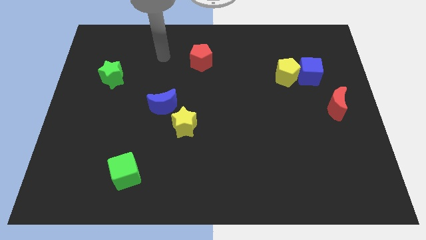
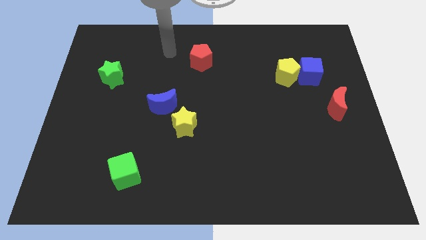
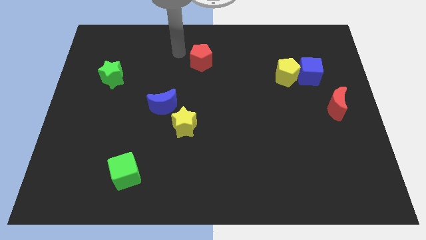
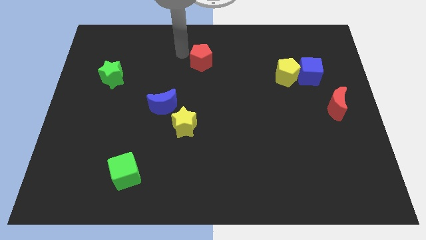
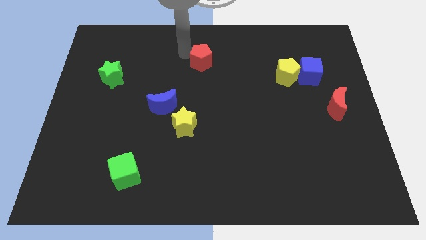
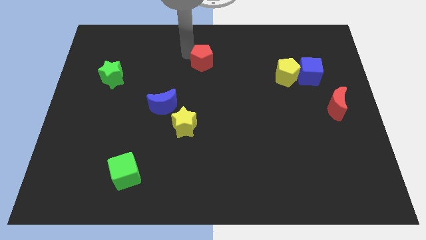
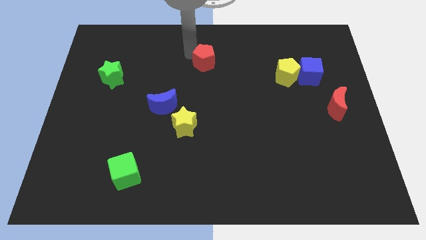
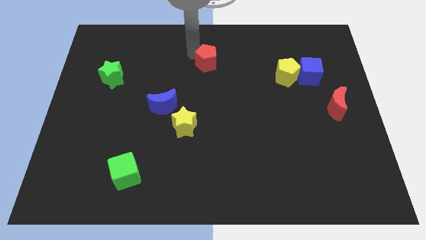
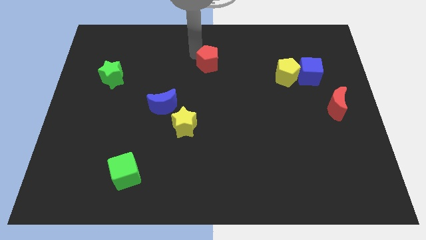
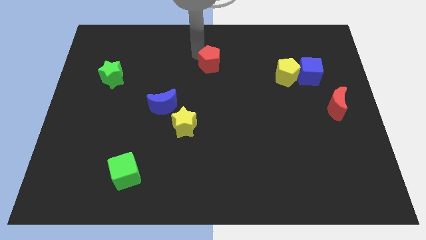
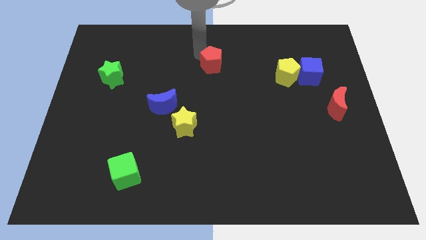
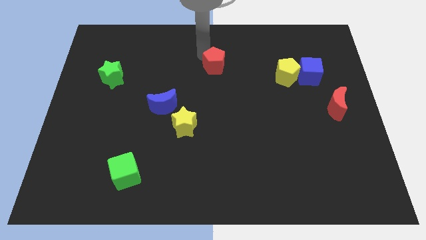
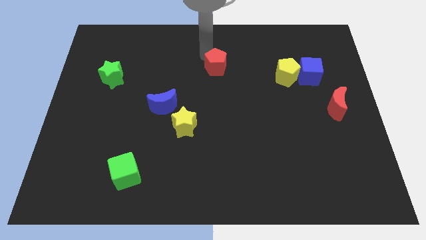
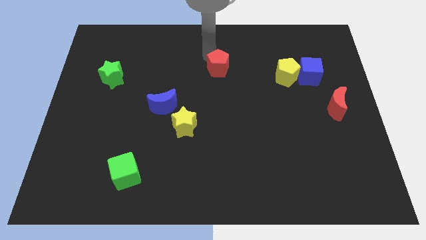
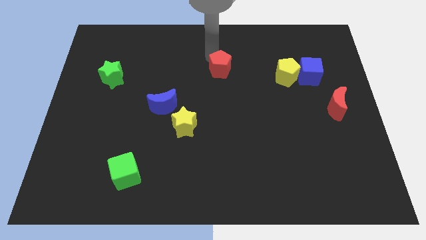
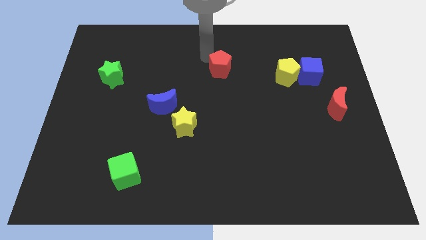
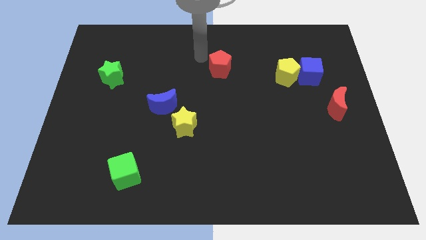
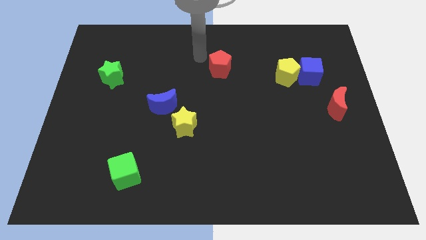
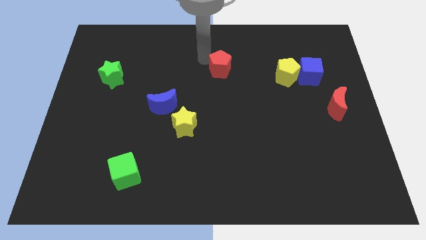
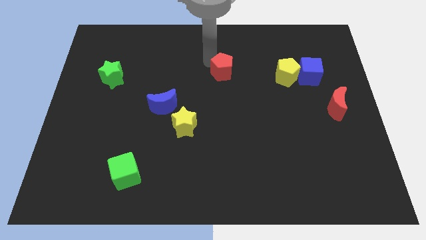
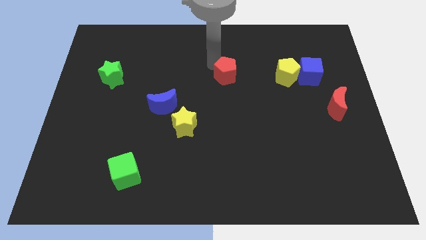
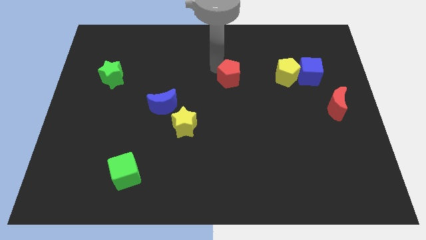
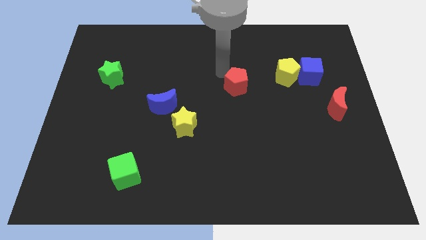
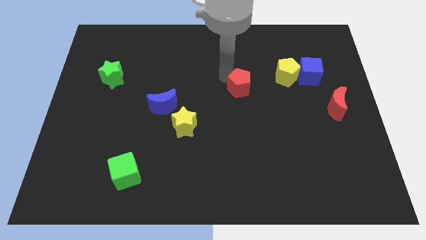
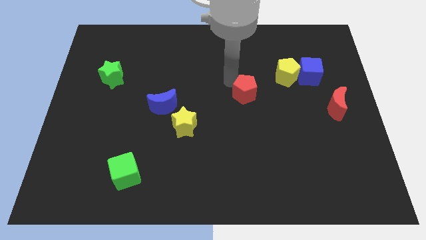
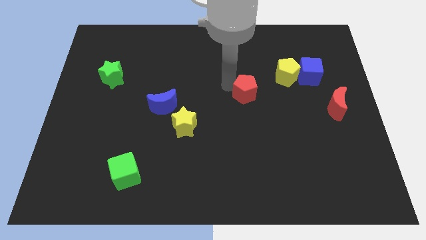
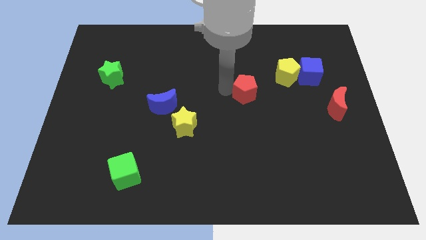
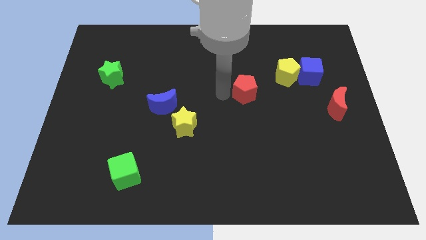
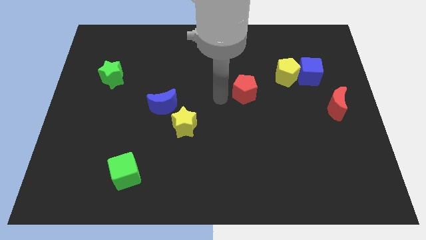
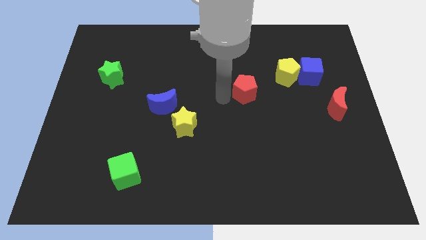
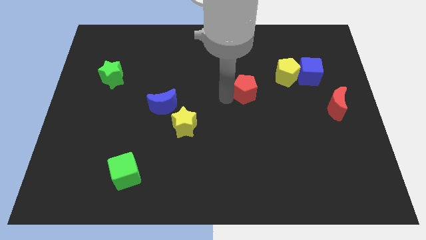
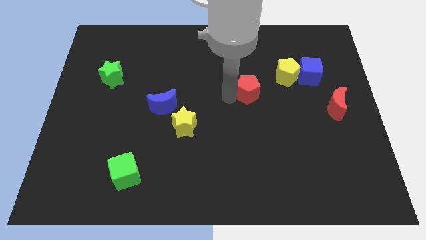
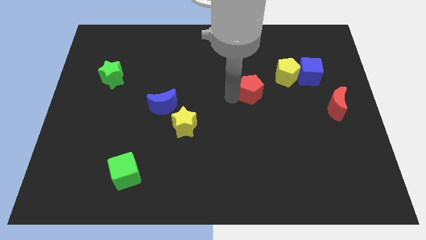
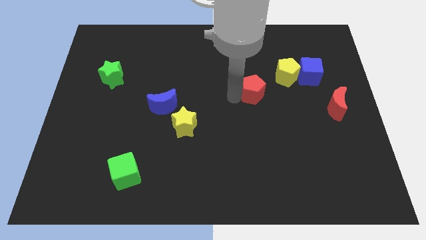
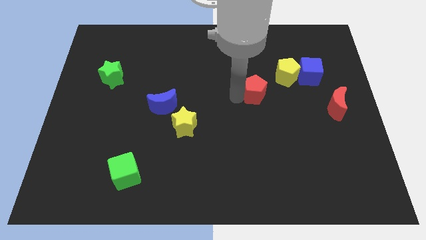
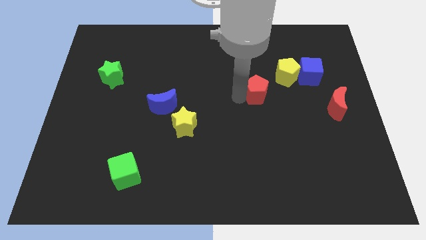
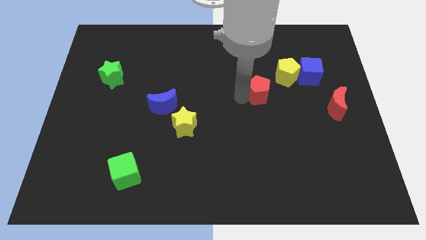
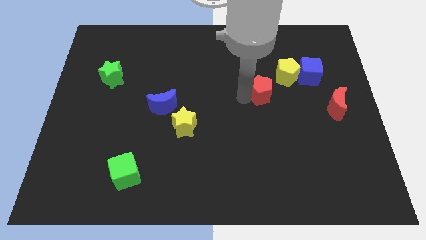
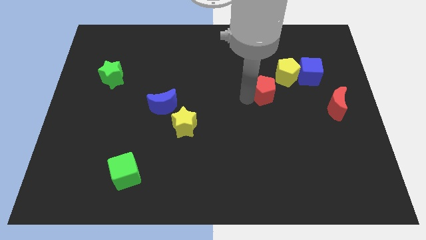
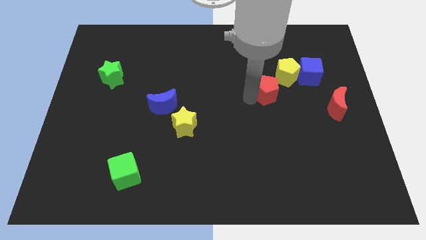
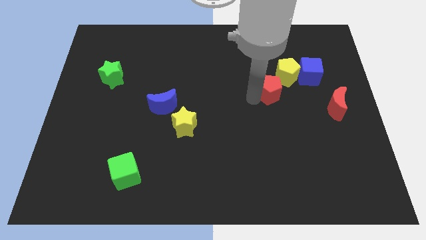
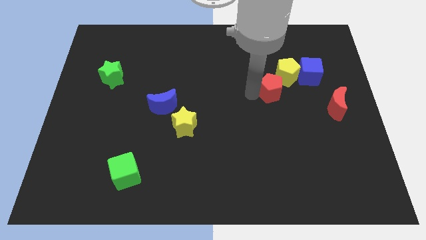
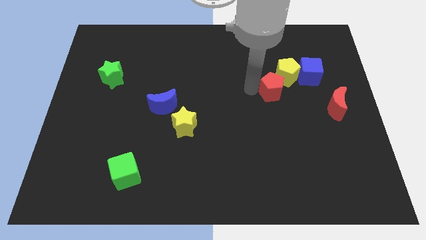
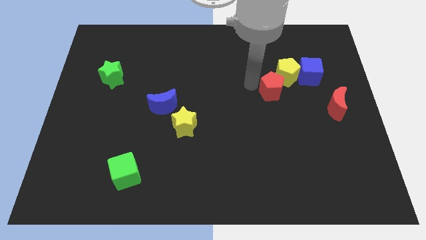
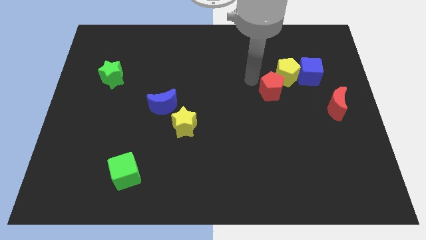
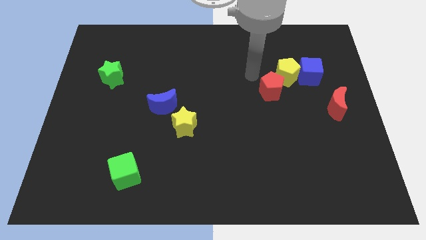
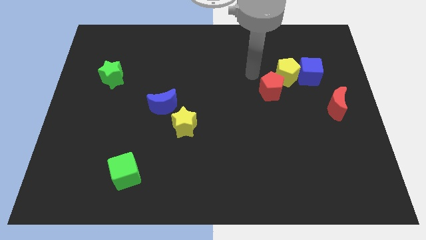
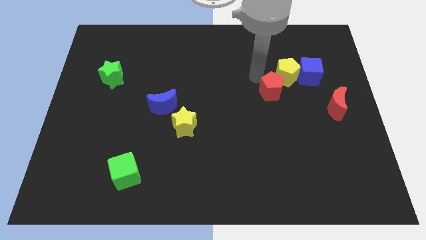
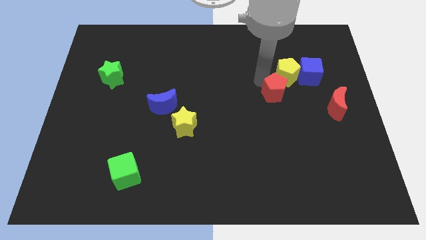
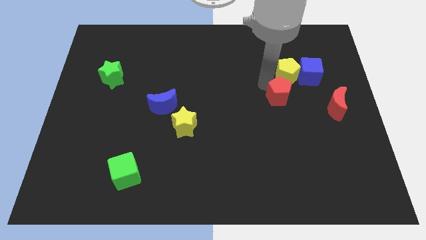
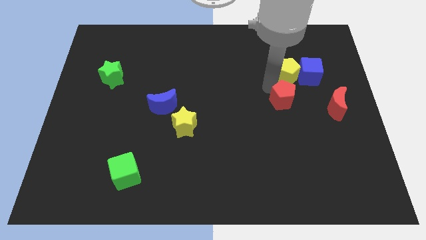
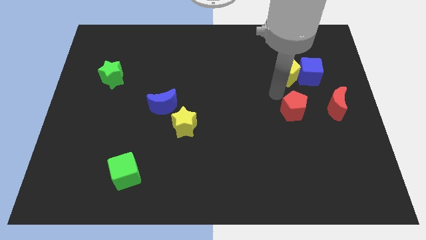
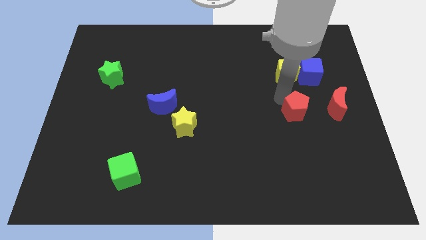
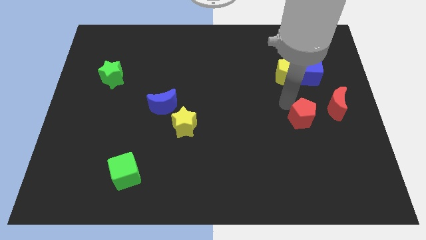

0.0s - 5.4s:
move the red pentagon to the bottom left of the red moon

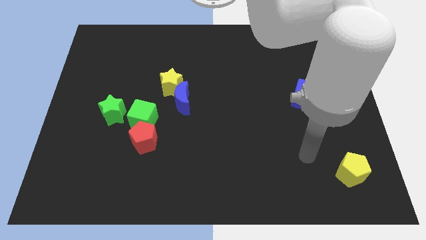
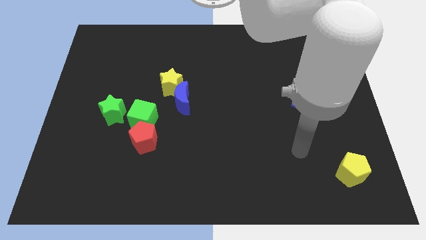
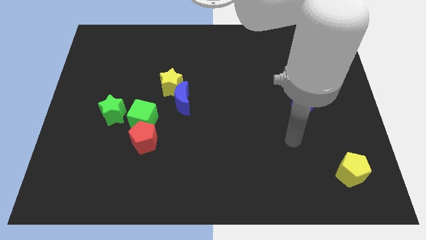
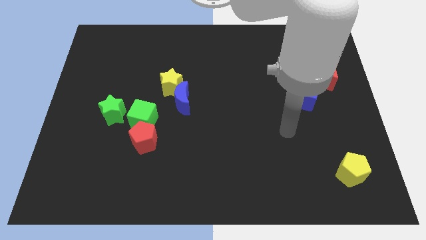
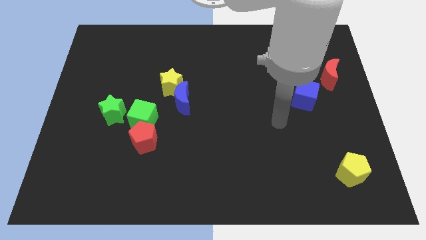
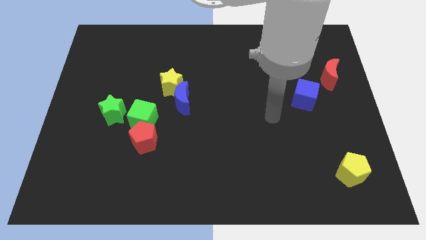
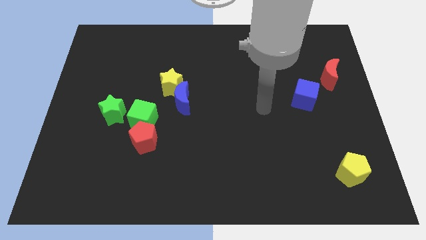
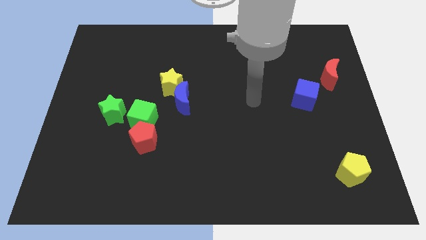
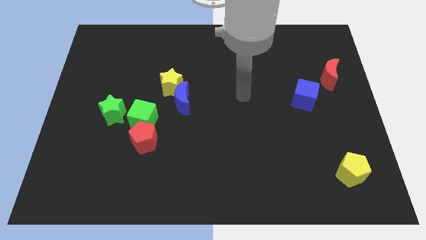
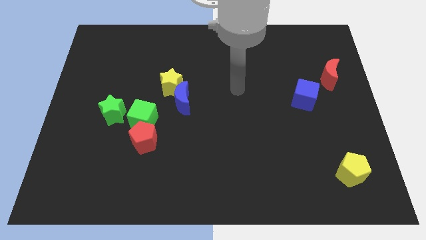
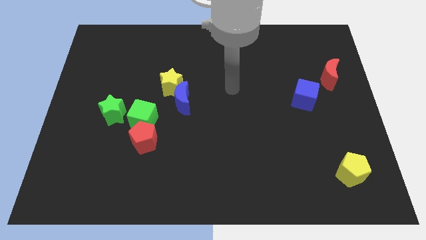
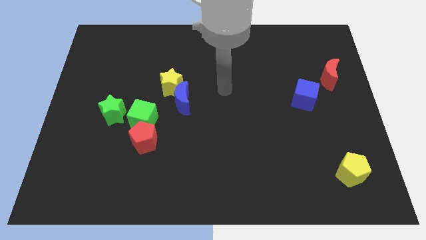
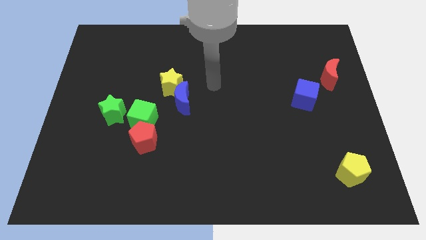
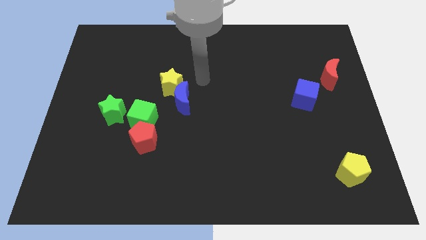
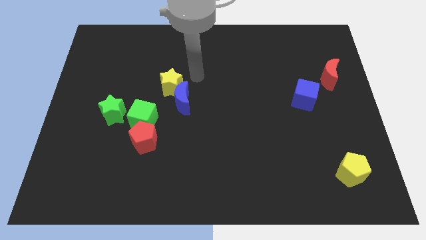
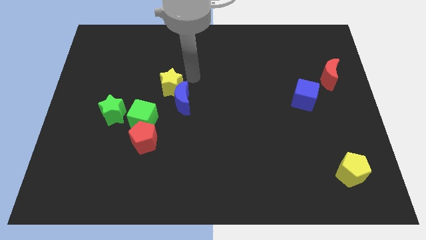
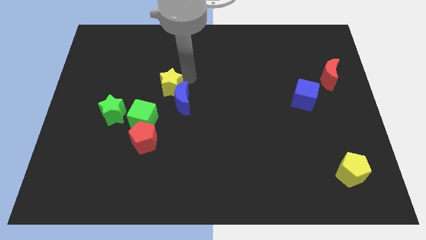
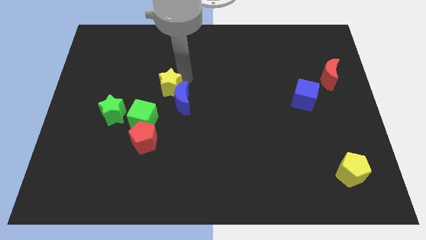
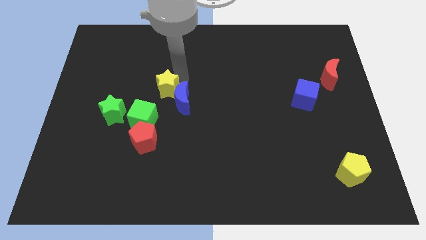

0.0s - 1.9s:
move the yellow star just left of the blue moon
